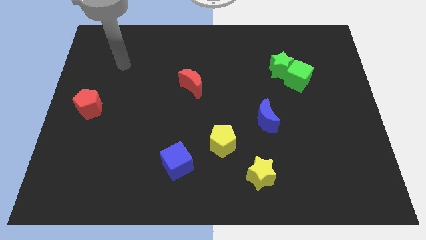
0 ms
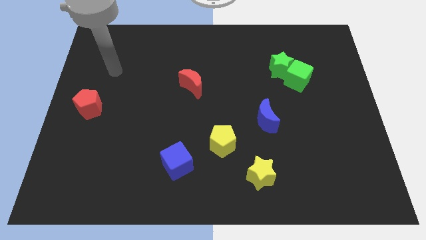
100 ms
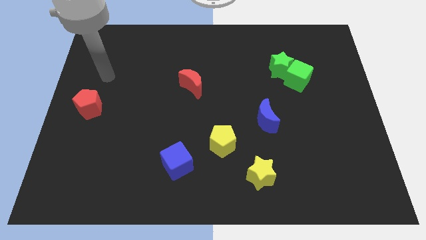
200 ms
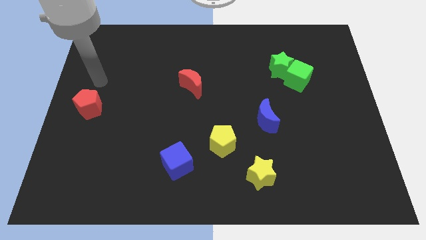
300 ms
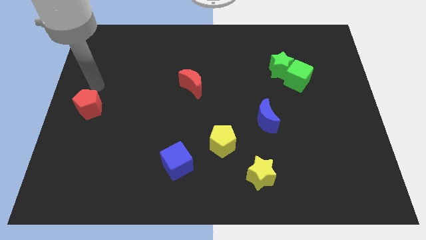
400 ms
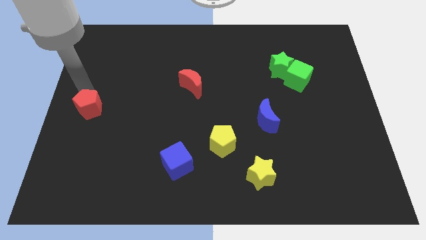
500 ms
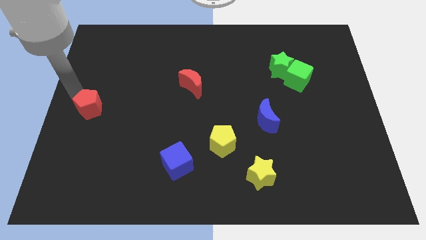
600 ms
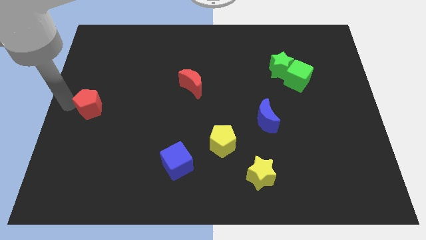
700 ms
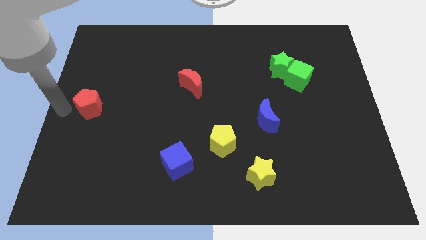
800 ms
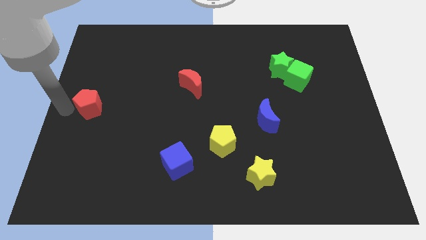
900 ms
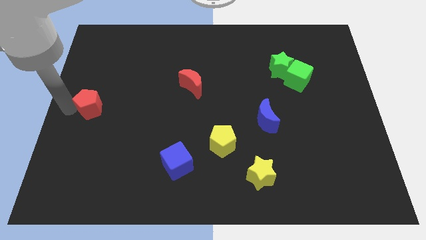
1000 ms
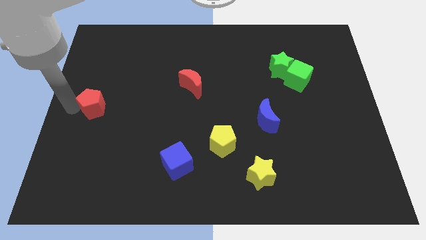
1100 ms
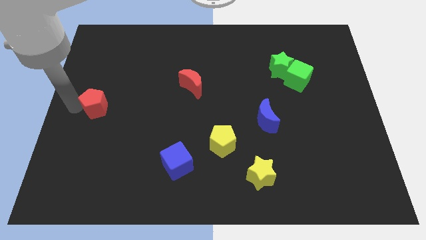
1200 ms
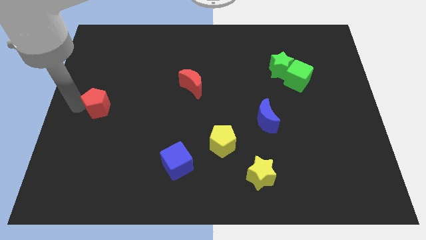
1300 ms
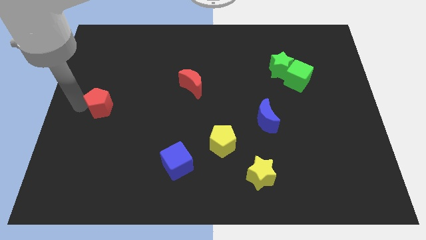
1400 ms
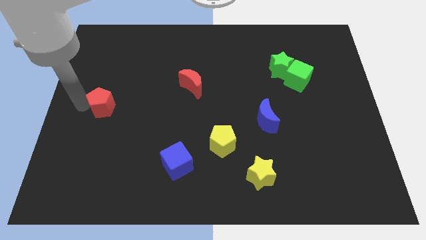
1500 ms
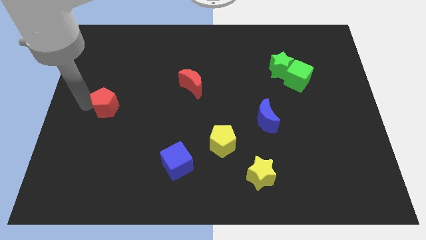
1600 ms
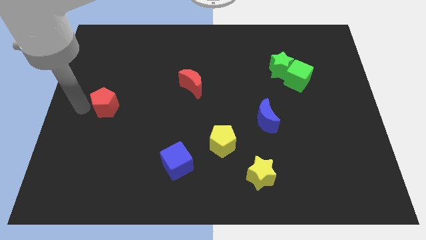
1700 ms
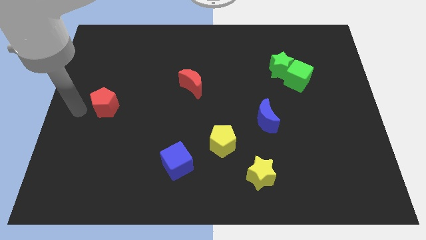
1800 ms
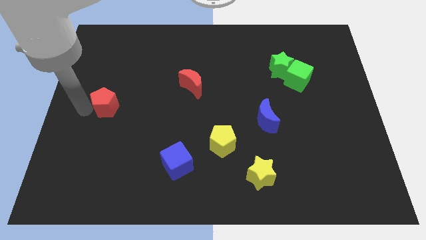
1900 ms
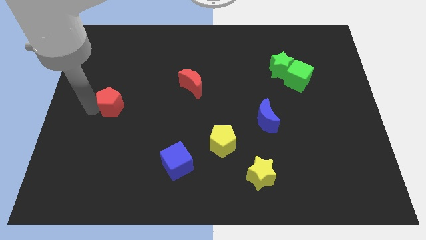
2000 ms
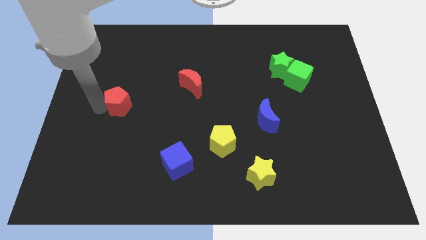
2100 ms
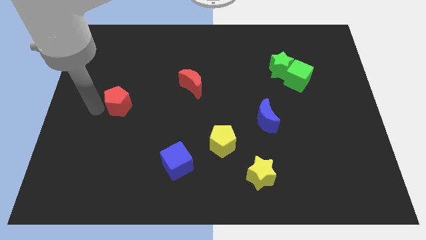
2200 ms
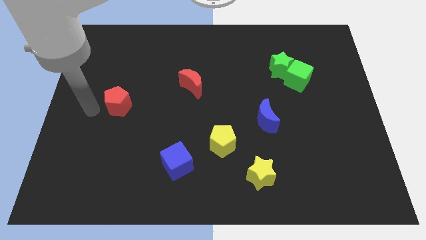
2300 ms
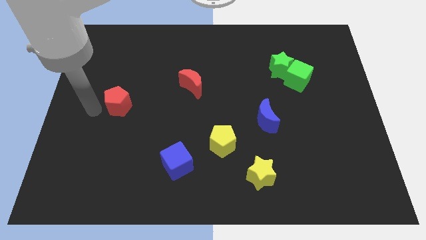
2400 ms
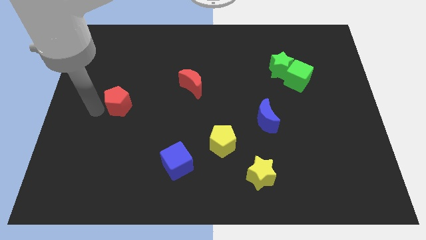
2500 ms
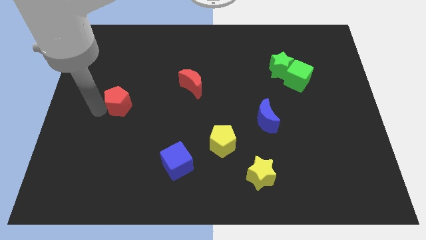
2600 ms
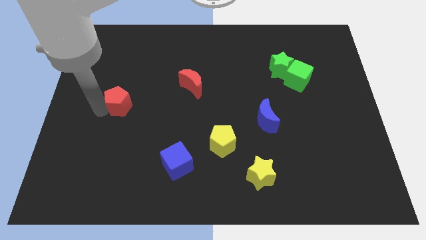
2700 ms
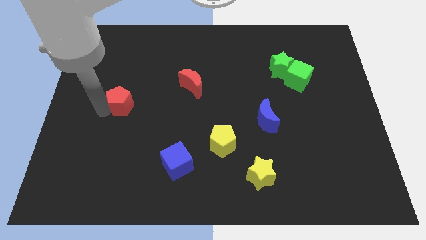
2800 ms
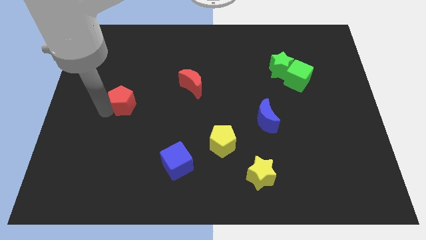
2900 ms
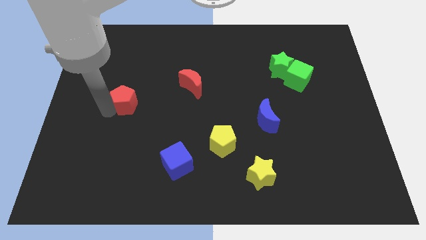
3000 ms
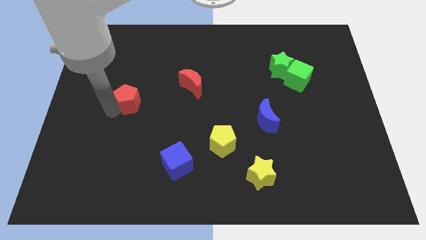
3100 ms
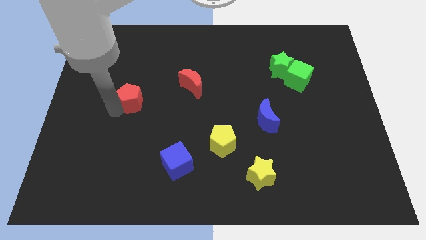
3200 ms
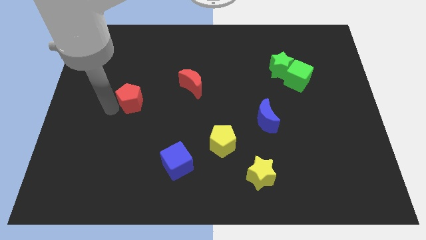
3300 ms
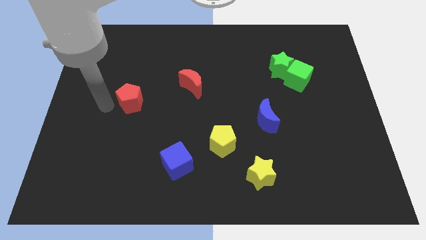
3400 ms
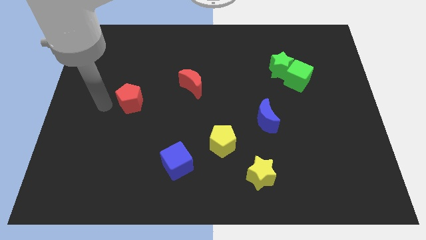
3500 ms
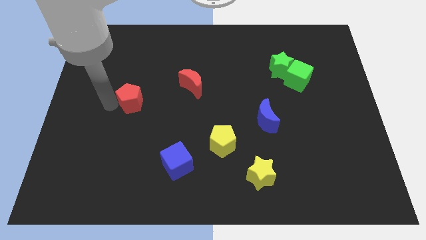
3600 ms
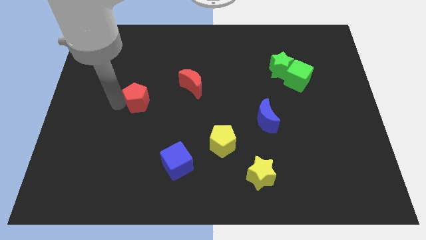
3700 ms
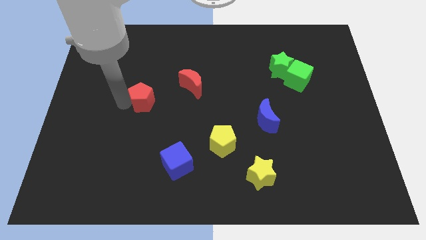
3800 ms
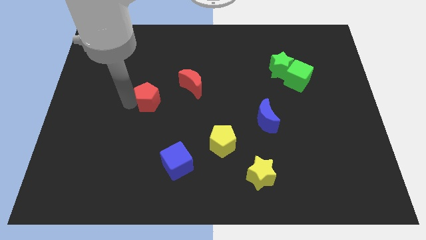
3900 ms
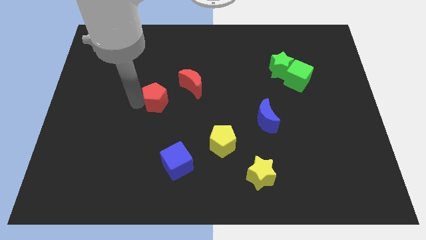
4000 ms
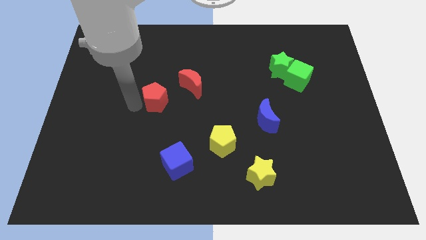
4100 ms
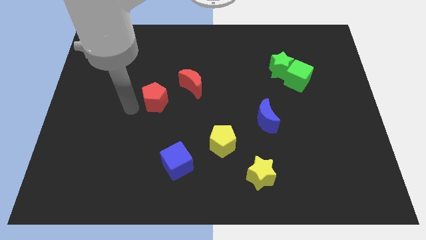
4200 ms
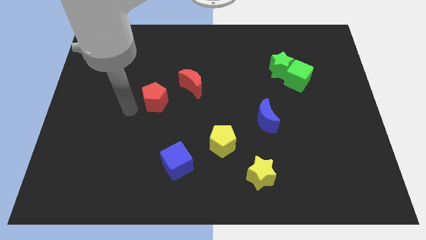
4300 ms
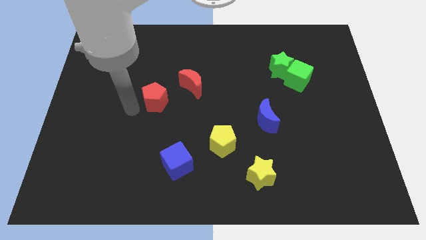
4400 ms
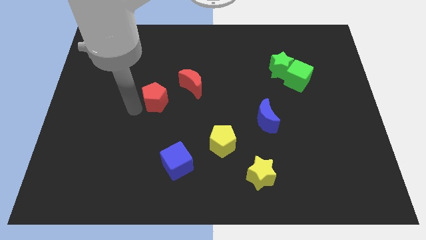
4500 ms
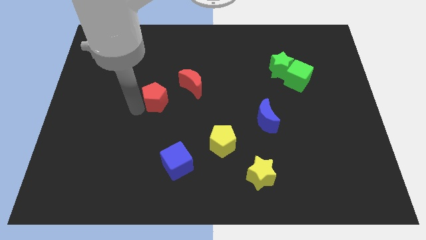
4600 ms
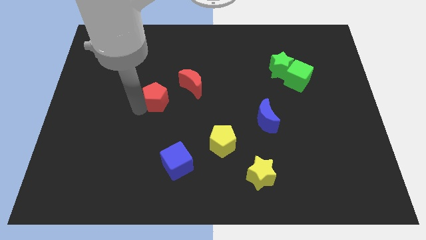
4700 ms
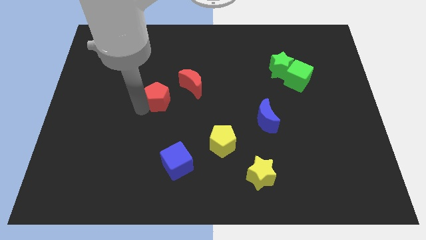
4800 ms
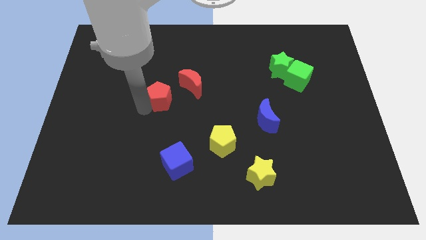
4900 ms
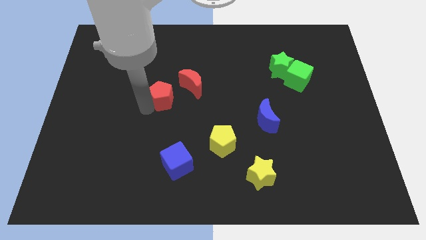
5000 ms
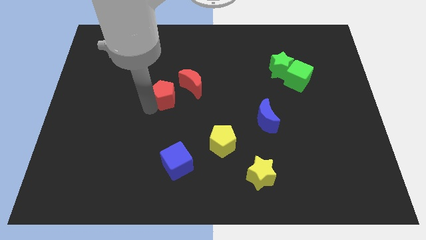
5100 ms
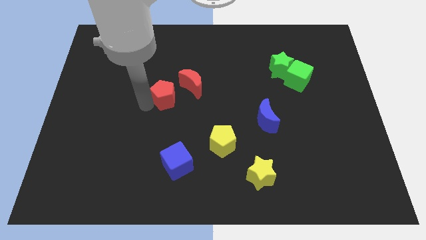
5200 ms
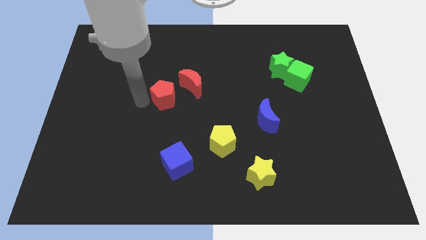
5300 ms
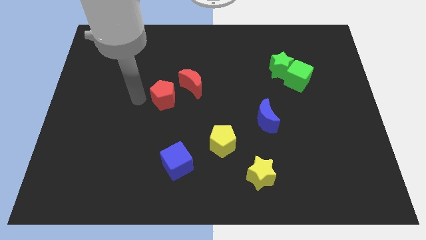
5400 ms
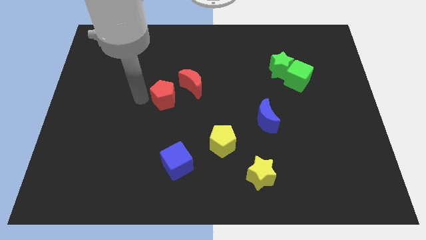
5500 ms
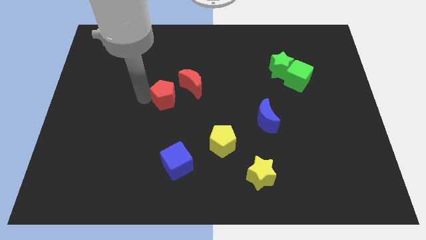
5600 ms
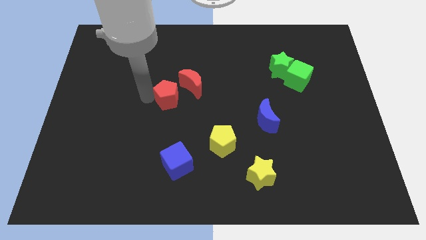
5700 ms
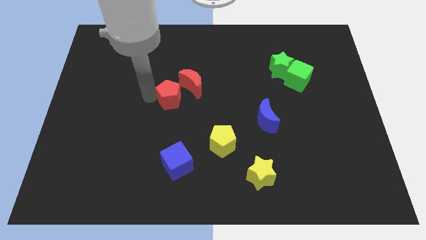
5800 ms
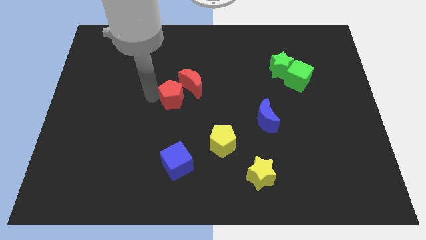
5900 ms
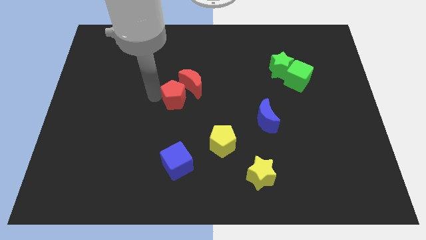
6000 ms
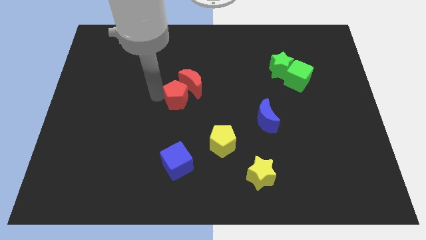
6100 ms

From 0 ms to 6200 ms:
move the red pentagon to the right

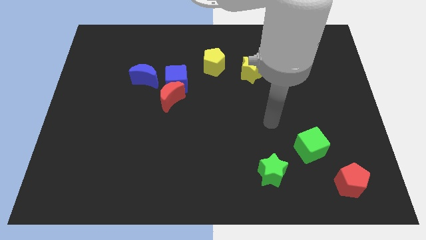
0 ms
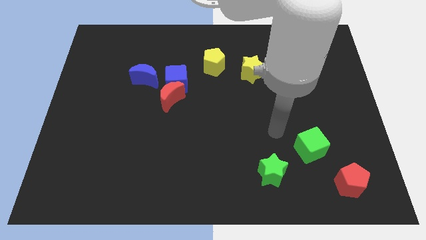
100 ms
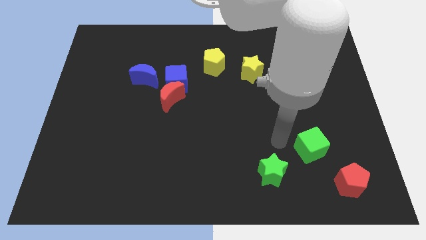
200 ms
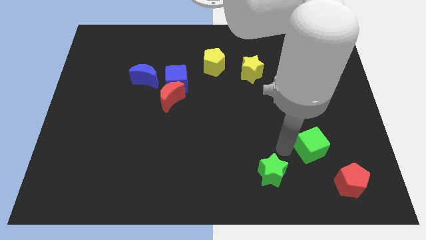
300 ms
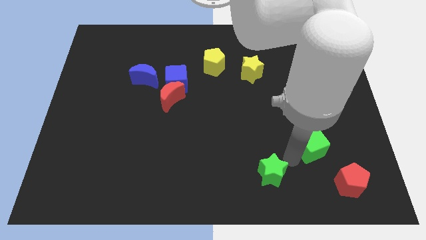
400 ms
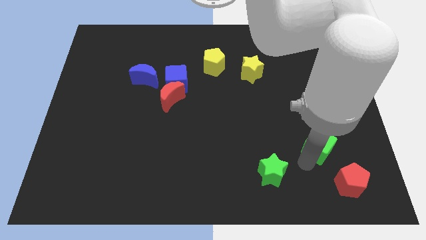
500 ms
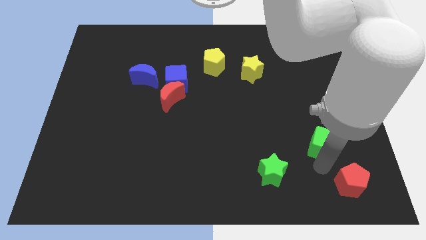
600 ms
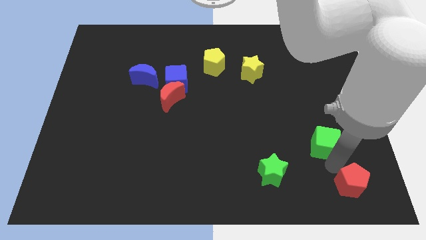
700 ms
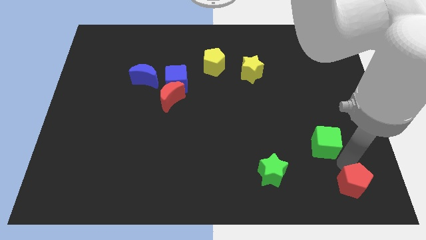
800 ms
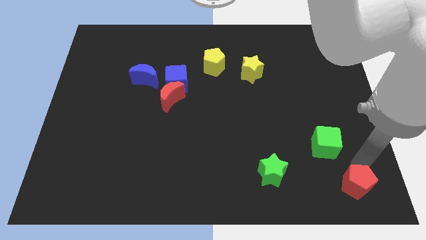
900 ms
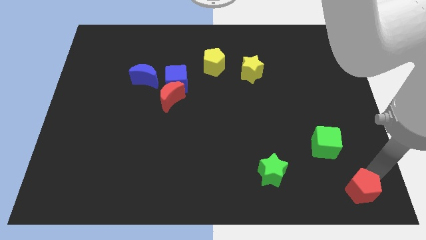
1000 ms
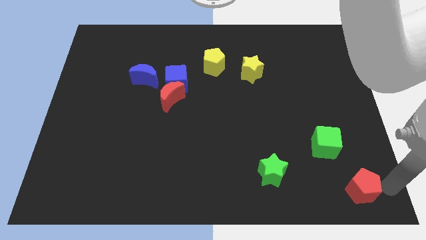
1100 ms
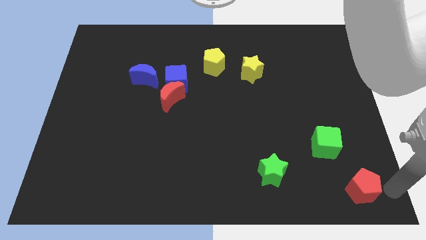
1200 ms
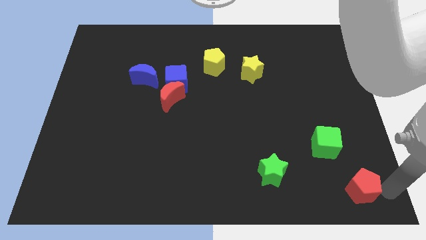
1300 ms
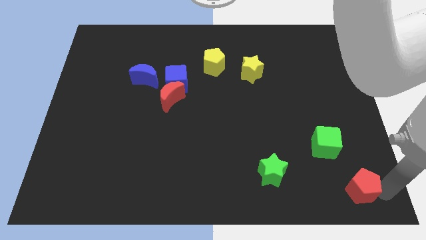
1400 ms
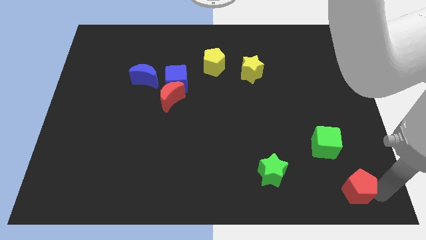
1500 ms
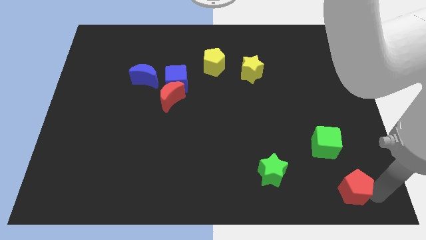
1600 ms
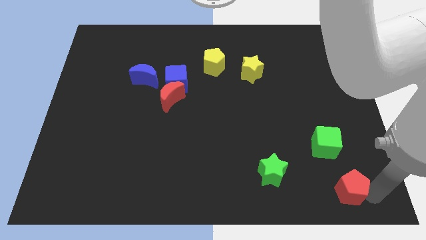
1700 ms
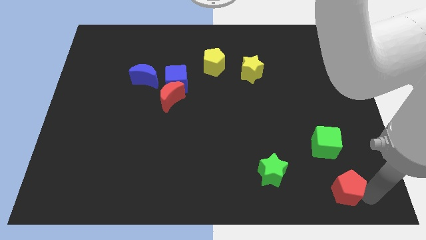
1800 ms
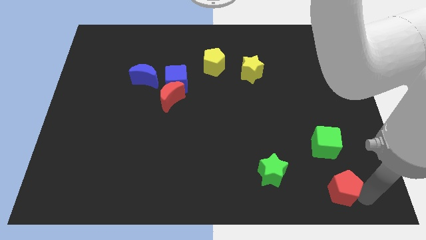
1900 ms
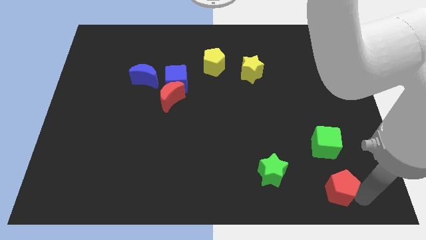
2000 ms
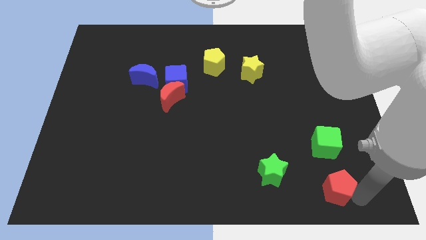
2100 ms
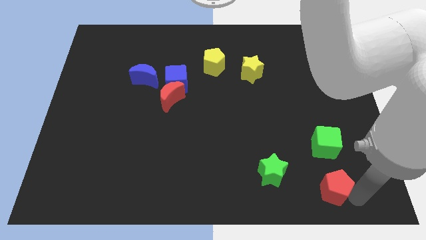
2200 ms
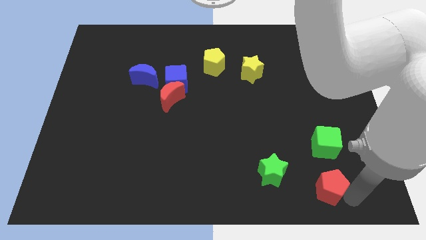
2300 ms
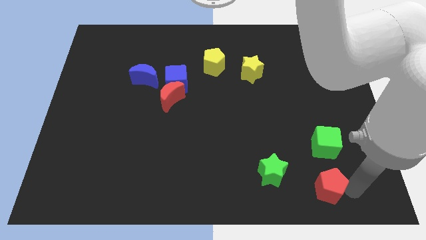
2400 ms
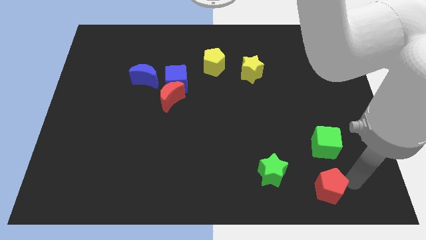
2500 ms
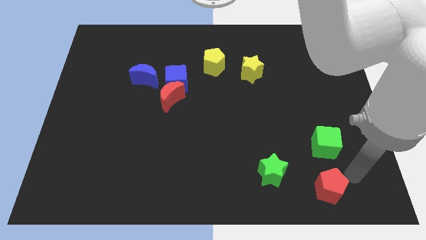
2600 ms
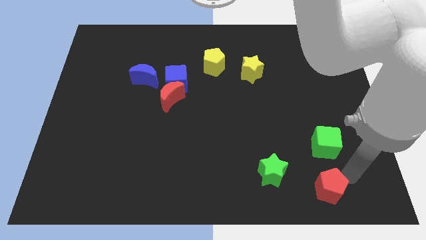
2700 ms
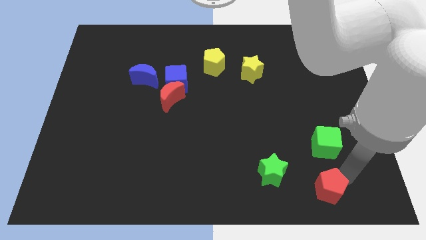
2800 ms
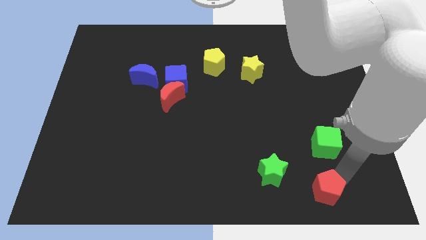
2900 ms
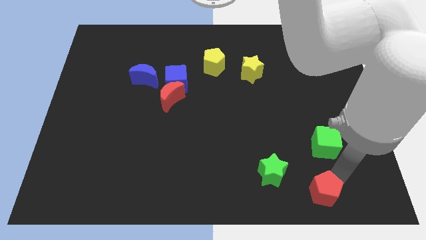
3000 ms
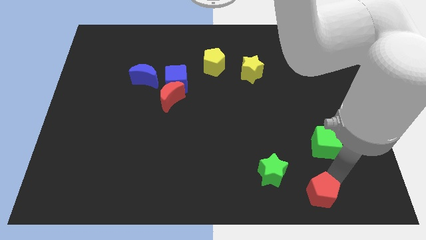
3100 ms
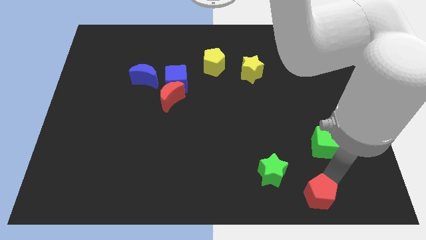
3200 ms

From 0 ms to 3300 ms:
push the red pentagon left slightly
